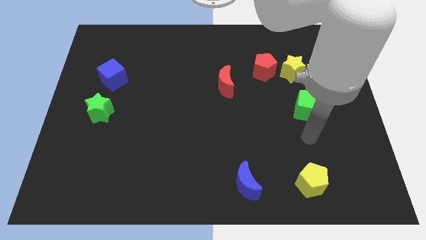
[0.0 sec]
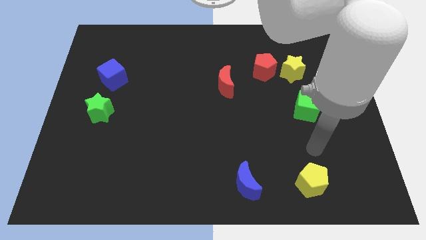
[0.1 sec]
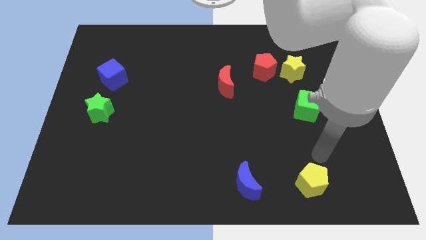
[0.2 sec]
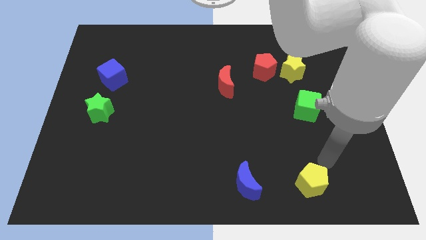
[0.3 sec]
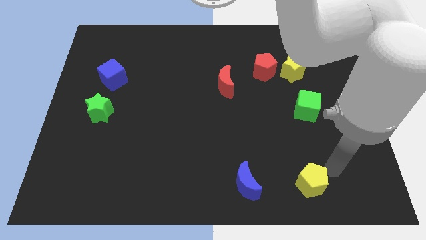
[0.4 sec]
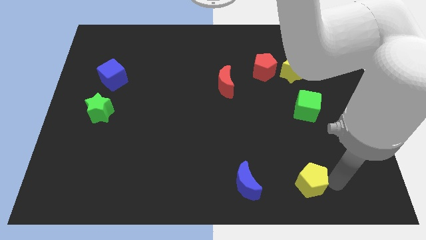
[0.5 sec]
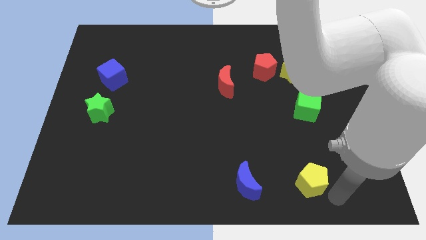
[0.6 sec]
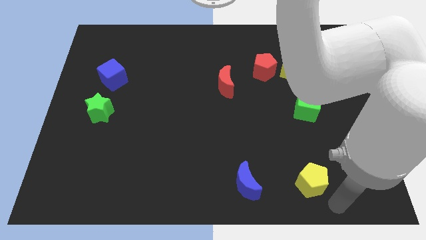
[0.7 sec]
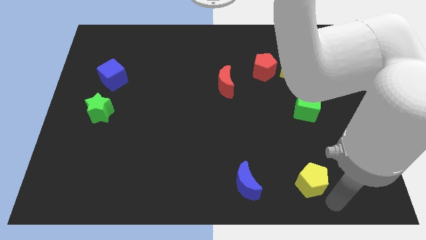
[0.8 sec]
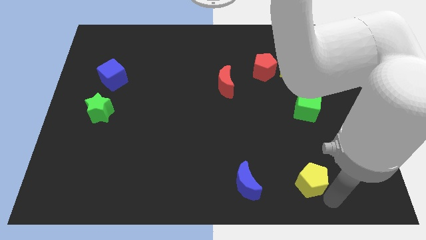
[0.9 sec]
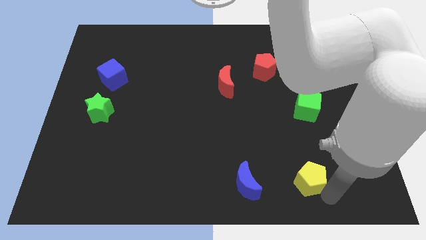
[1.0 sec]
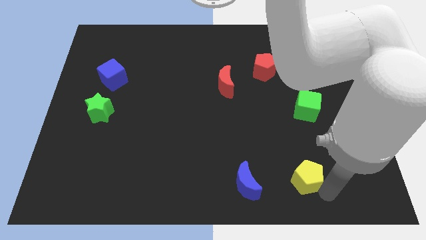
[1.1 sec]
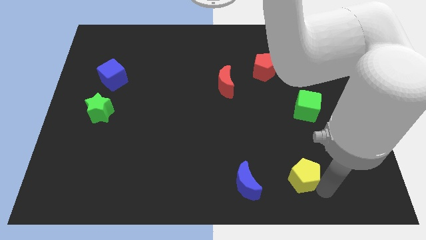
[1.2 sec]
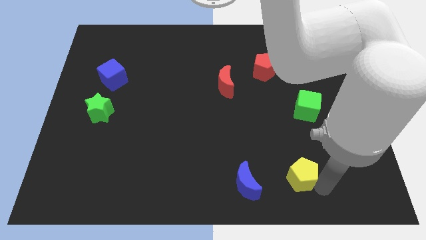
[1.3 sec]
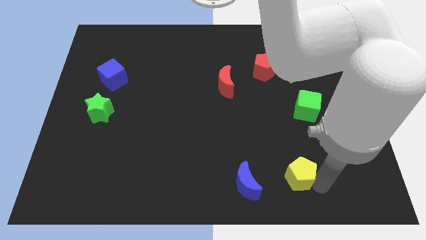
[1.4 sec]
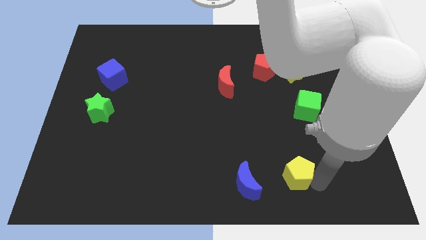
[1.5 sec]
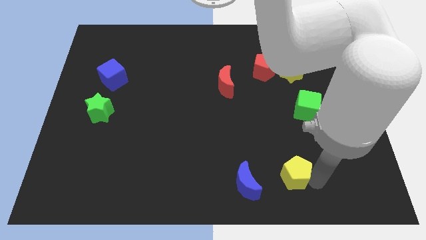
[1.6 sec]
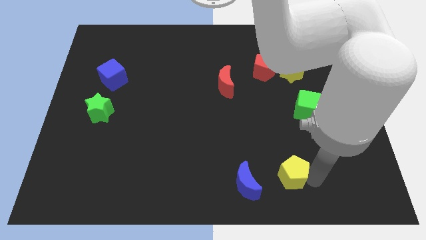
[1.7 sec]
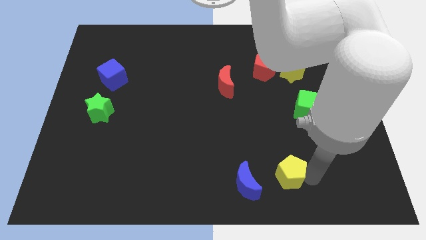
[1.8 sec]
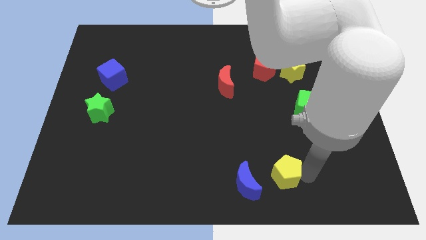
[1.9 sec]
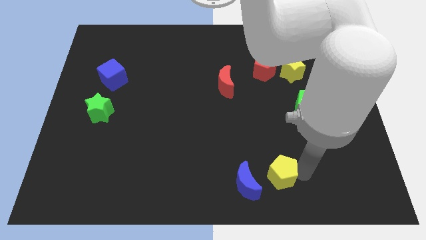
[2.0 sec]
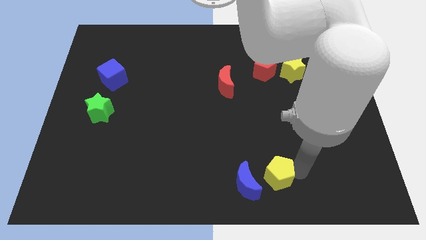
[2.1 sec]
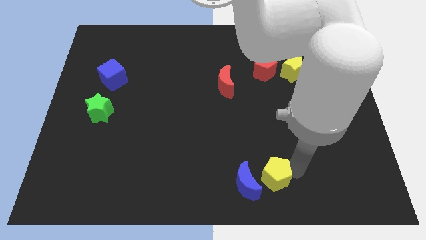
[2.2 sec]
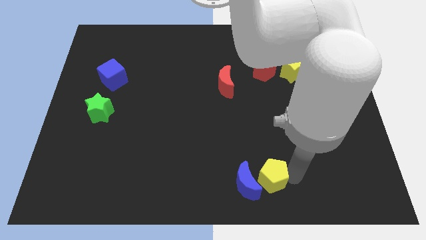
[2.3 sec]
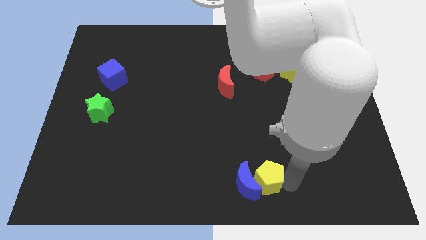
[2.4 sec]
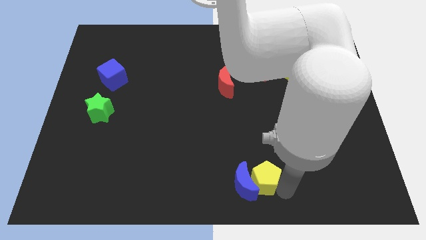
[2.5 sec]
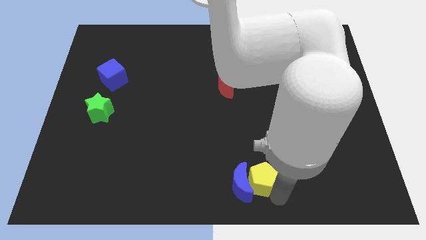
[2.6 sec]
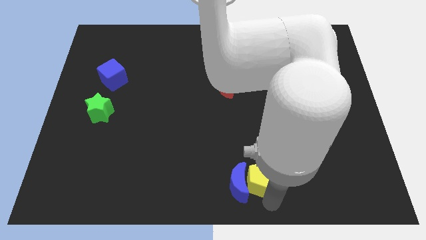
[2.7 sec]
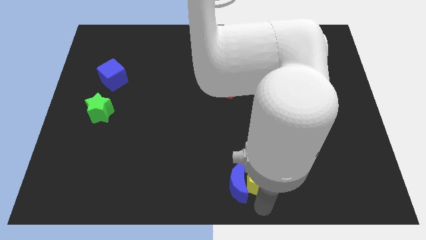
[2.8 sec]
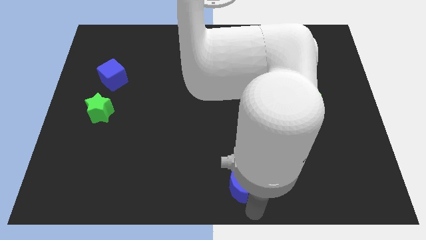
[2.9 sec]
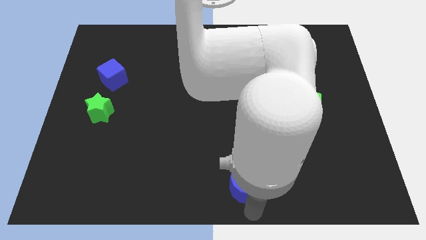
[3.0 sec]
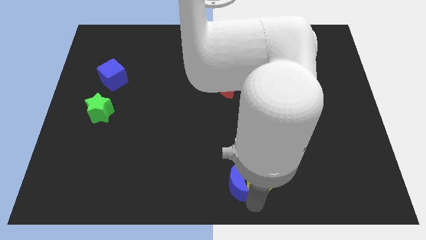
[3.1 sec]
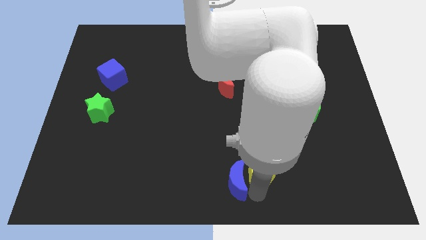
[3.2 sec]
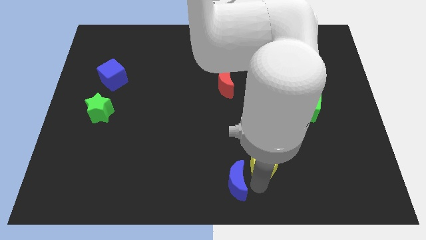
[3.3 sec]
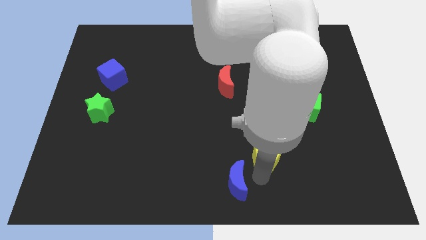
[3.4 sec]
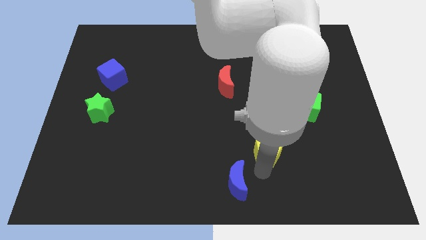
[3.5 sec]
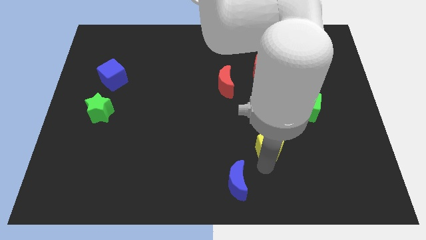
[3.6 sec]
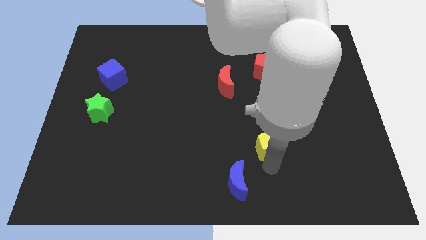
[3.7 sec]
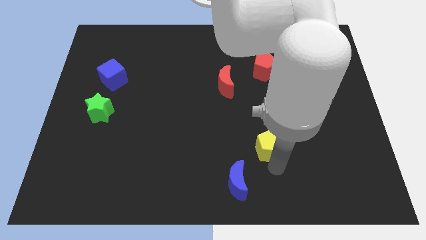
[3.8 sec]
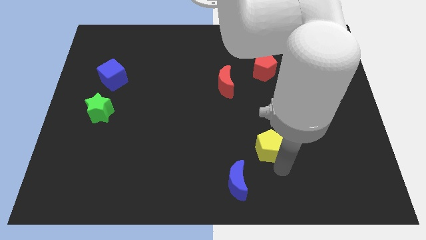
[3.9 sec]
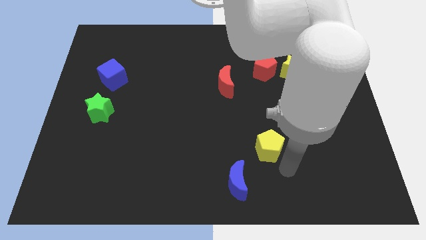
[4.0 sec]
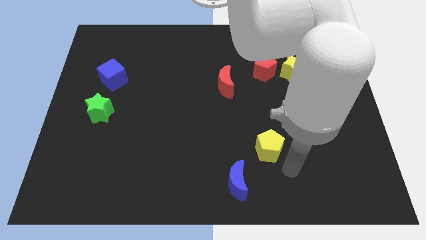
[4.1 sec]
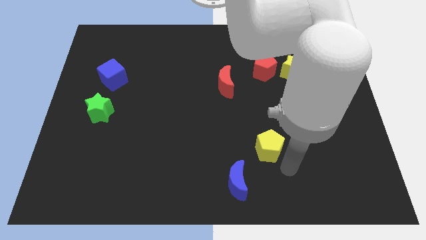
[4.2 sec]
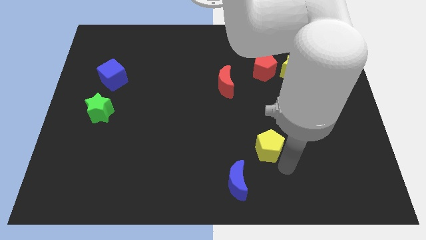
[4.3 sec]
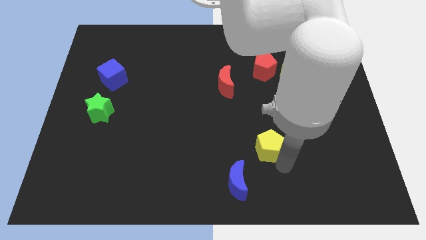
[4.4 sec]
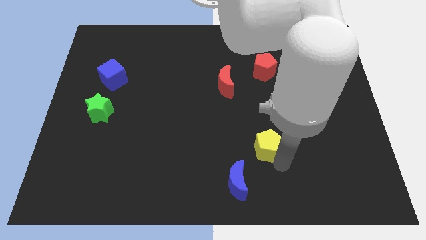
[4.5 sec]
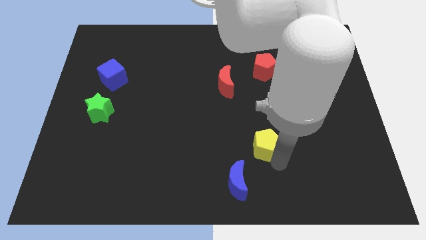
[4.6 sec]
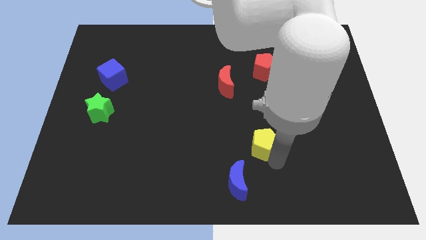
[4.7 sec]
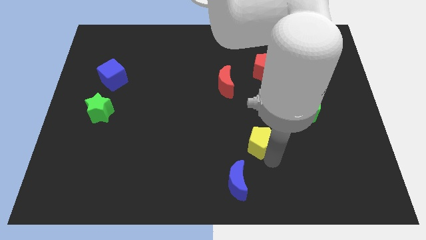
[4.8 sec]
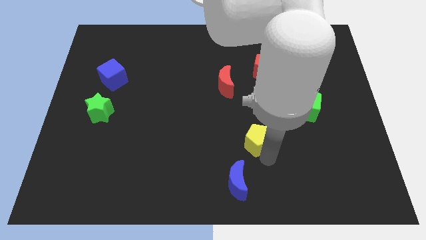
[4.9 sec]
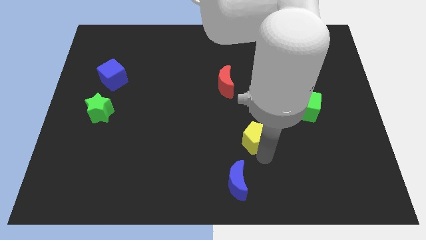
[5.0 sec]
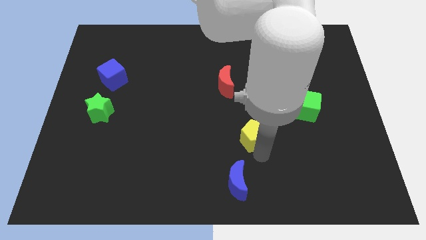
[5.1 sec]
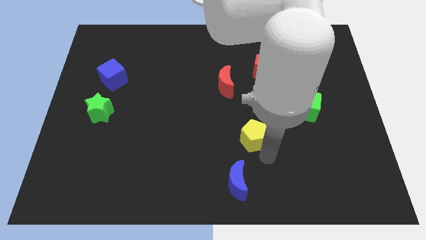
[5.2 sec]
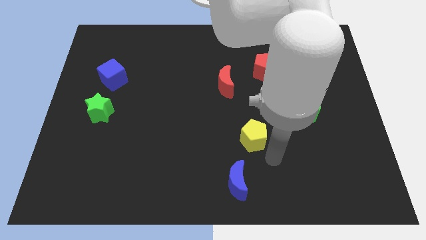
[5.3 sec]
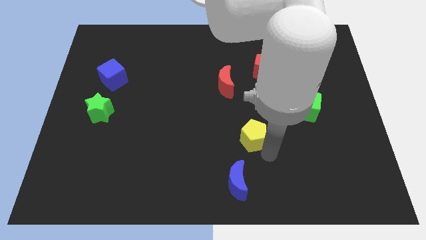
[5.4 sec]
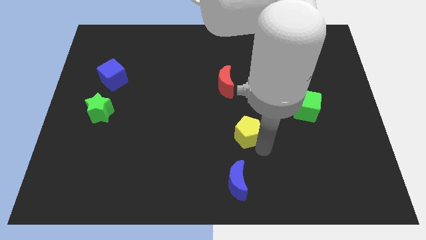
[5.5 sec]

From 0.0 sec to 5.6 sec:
push the yellow pentagon to the middle
